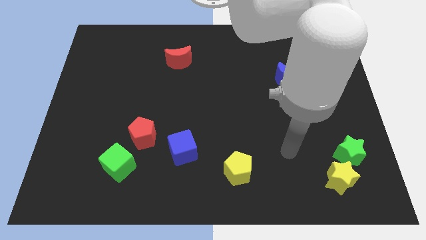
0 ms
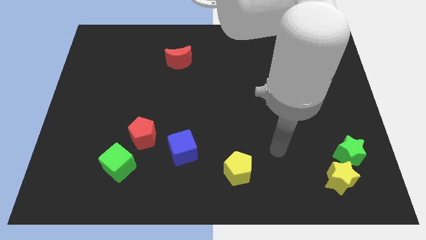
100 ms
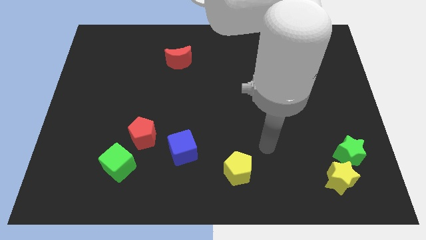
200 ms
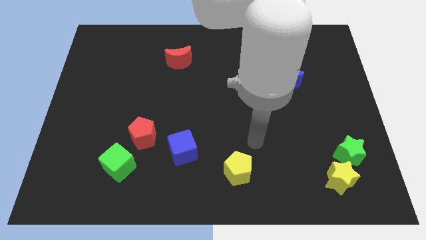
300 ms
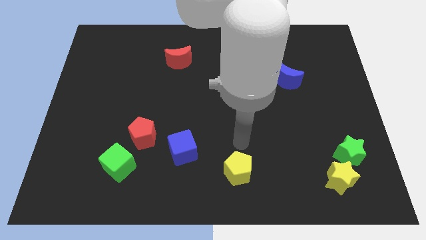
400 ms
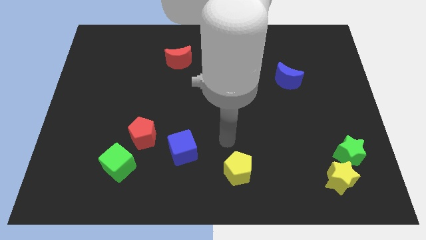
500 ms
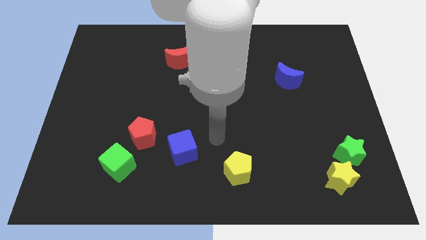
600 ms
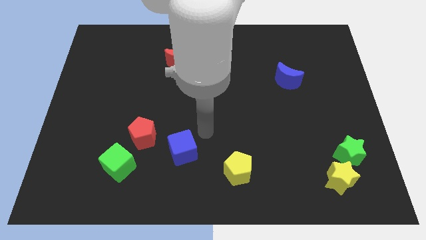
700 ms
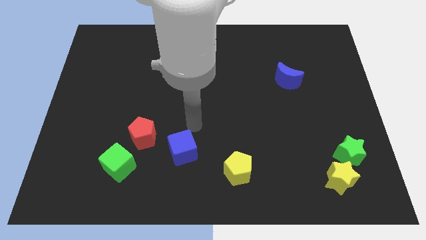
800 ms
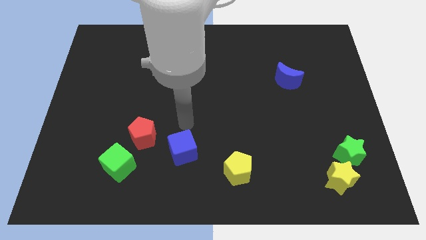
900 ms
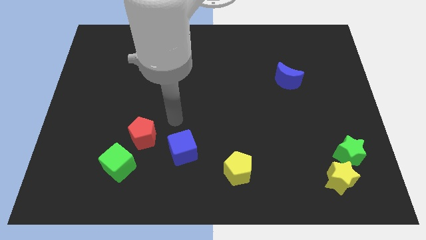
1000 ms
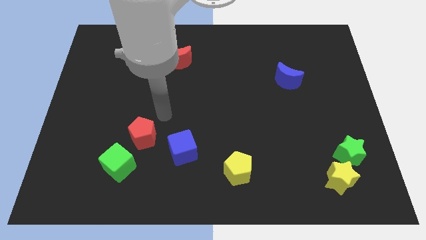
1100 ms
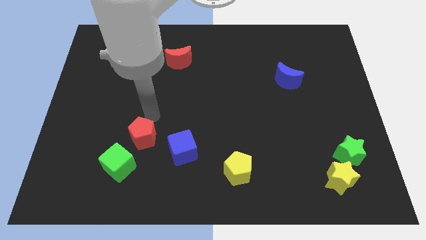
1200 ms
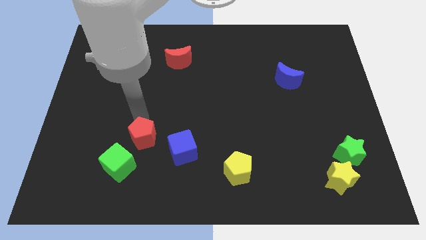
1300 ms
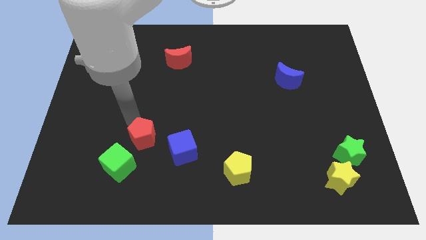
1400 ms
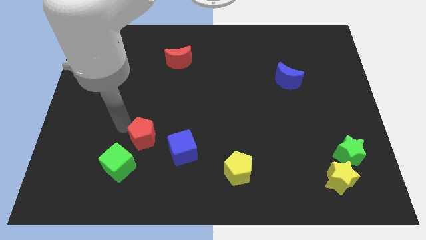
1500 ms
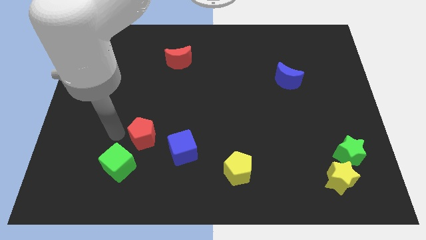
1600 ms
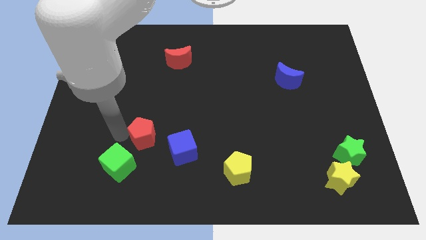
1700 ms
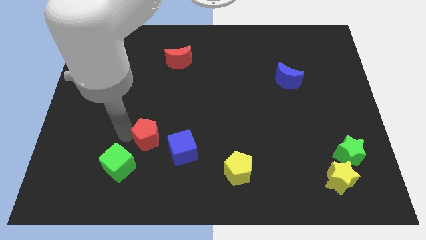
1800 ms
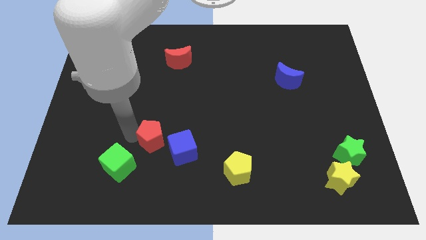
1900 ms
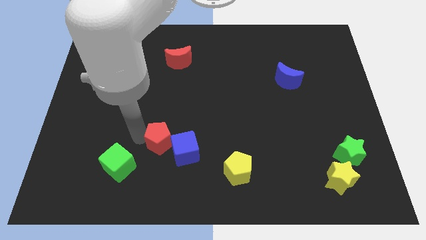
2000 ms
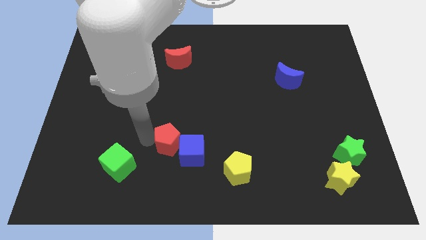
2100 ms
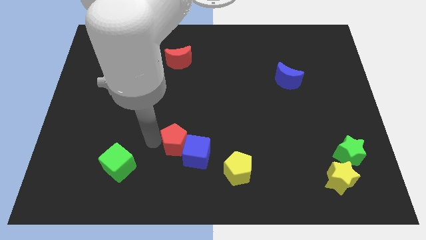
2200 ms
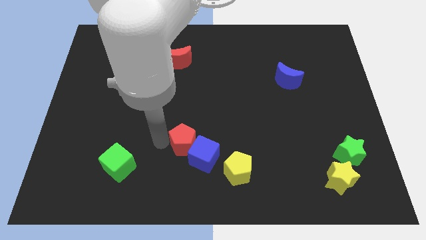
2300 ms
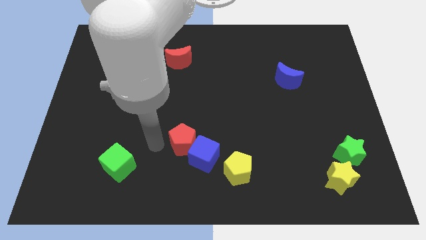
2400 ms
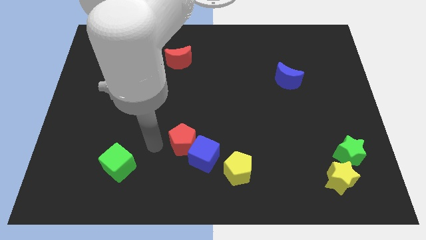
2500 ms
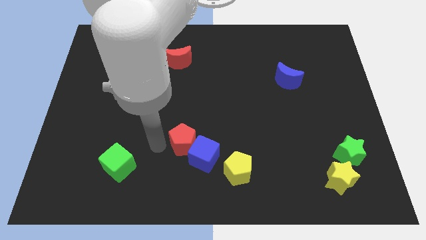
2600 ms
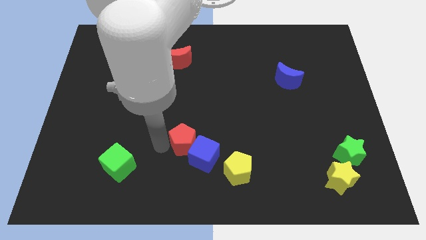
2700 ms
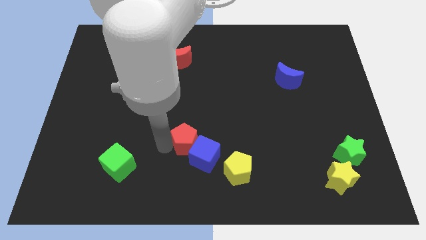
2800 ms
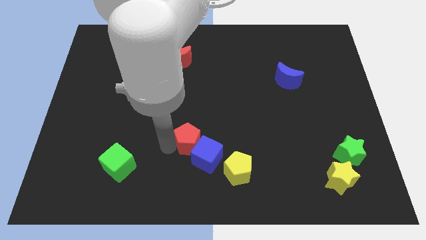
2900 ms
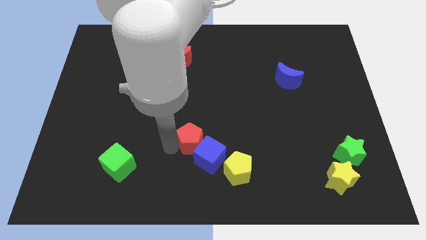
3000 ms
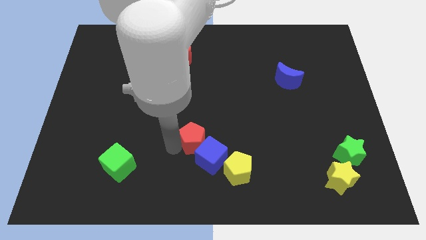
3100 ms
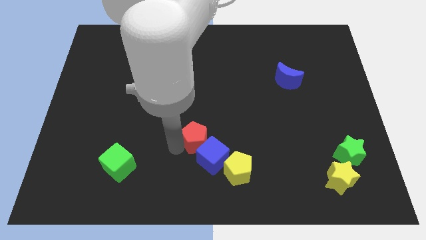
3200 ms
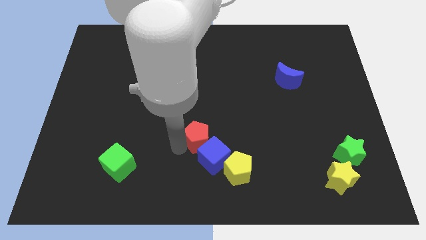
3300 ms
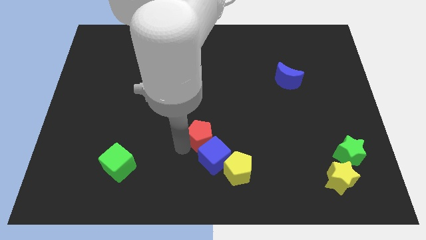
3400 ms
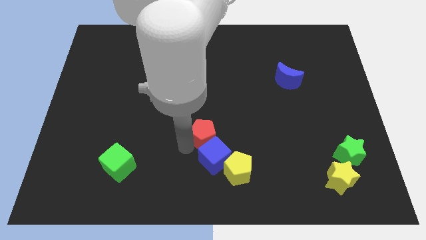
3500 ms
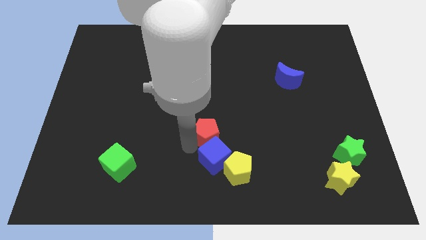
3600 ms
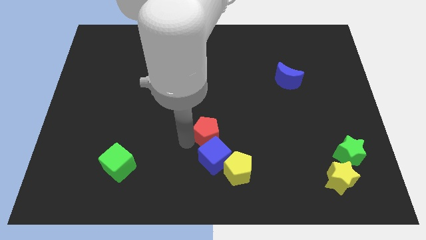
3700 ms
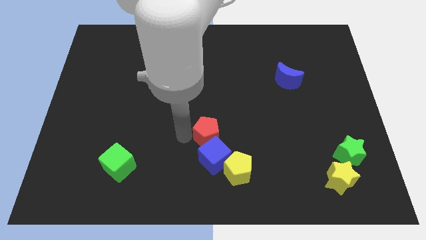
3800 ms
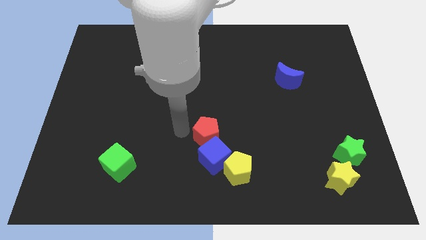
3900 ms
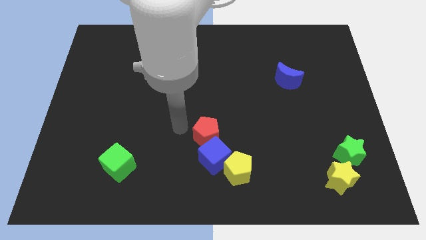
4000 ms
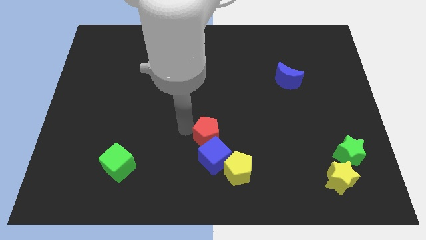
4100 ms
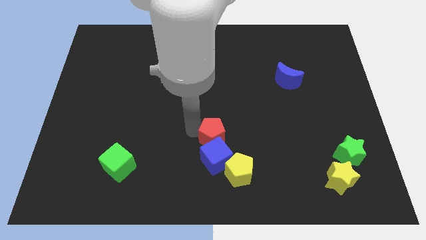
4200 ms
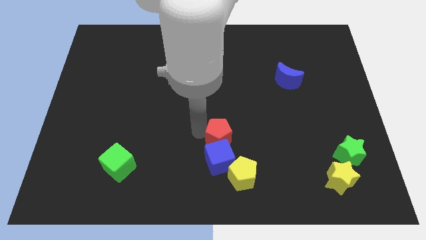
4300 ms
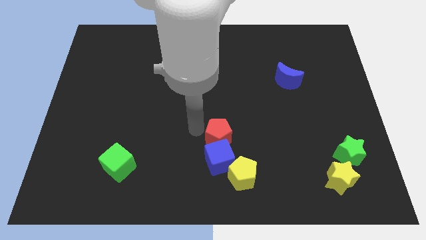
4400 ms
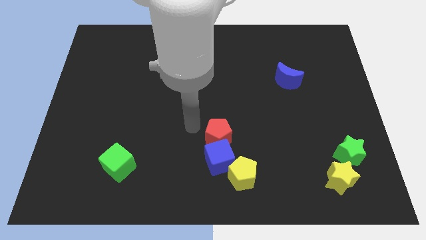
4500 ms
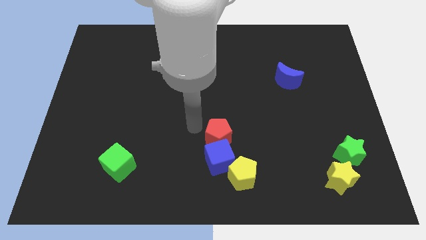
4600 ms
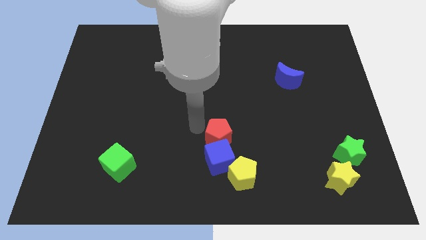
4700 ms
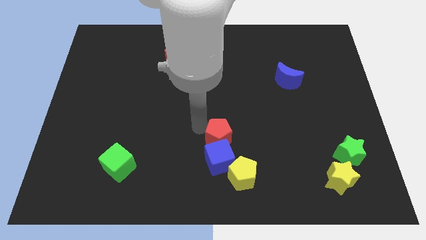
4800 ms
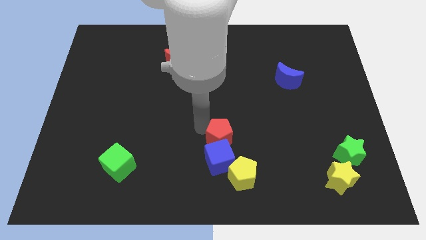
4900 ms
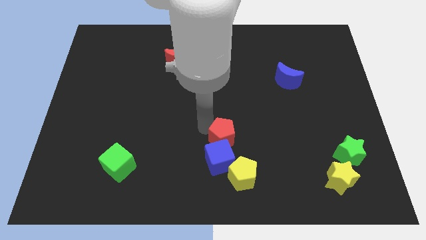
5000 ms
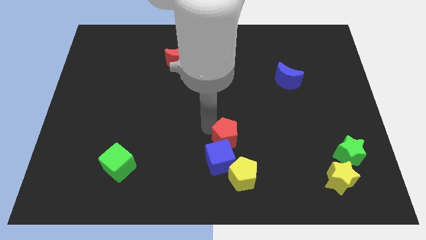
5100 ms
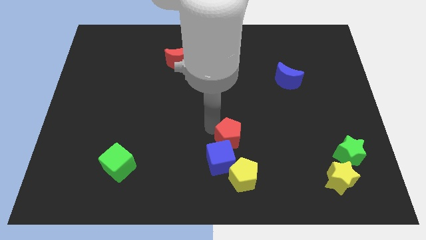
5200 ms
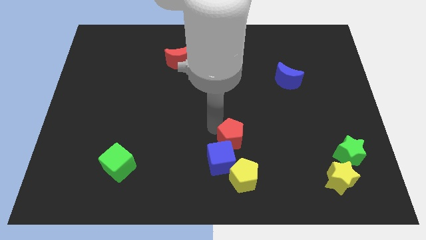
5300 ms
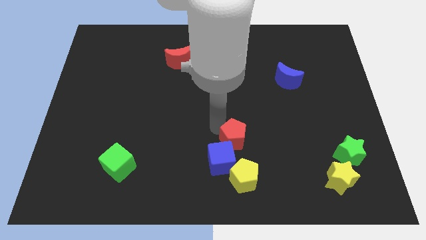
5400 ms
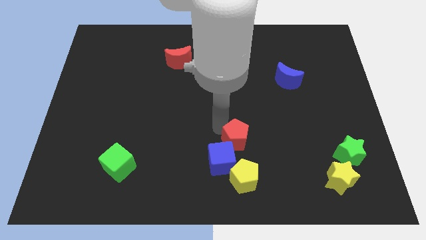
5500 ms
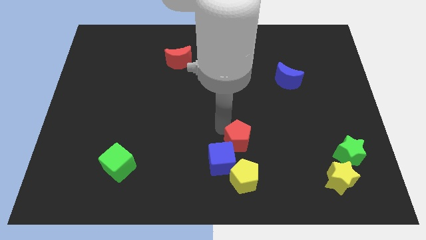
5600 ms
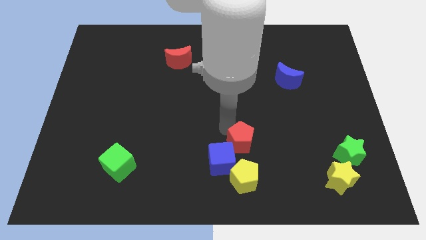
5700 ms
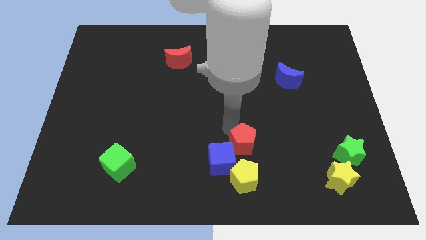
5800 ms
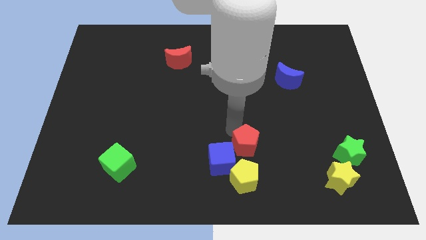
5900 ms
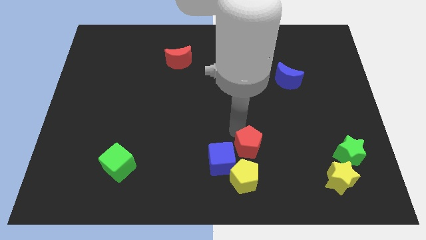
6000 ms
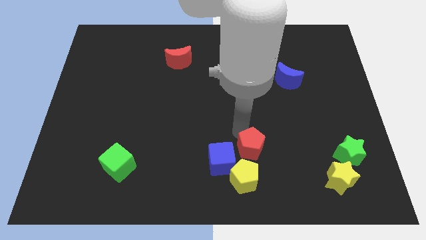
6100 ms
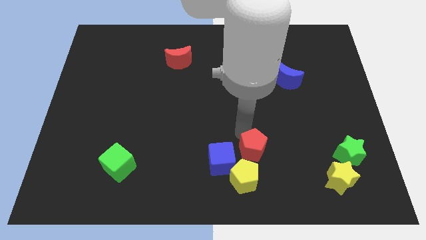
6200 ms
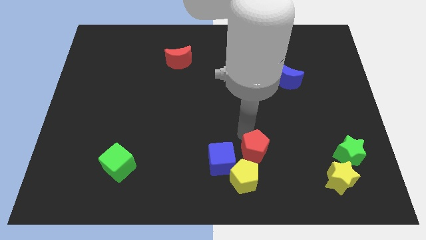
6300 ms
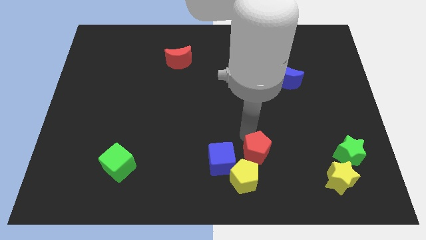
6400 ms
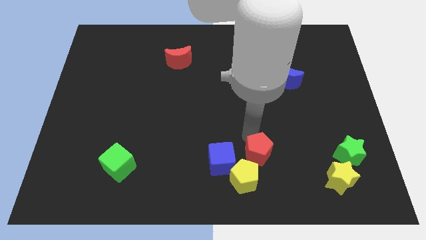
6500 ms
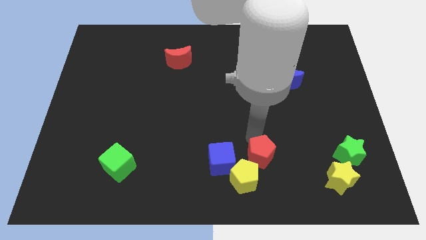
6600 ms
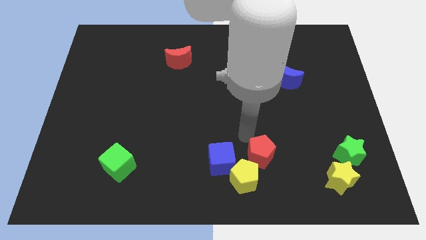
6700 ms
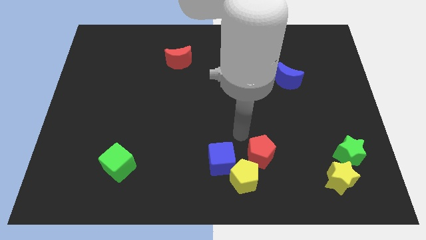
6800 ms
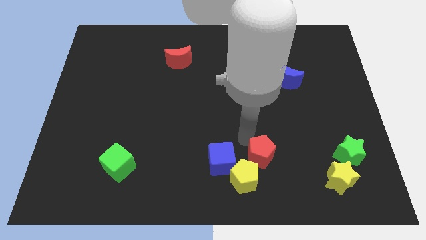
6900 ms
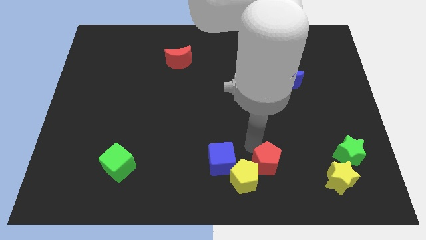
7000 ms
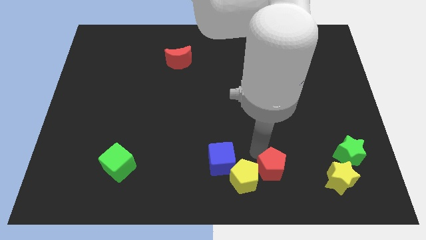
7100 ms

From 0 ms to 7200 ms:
slide the red pentagon left of the yellow star
